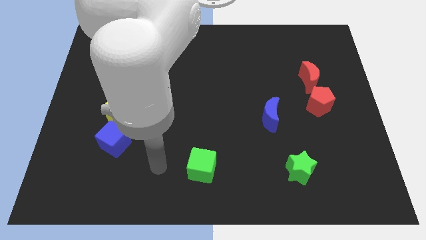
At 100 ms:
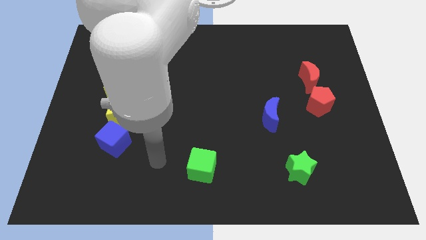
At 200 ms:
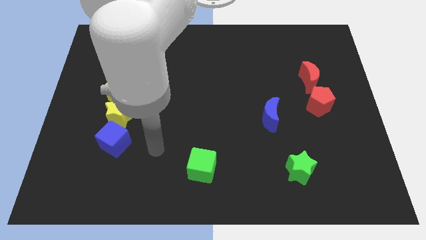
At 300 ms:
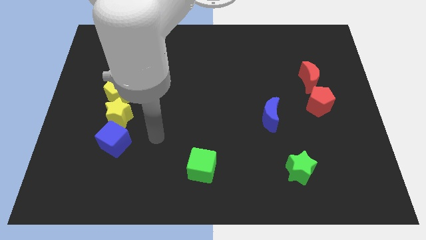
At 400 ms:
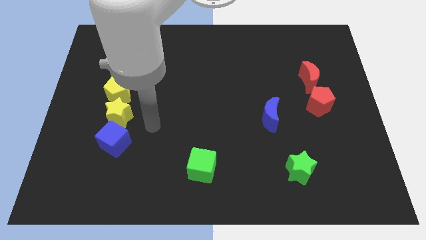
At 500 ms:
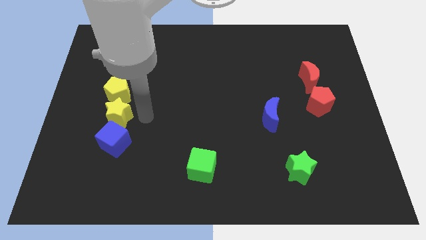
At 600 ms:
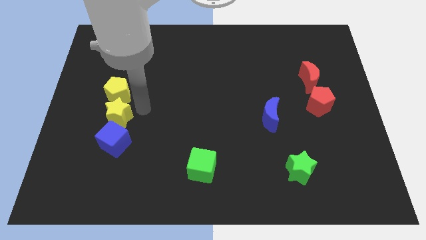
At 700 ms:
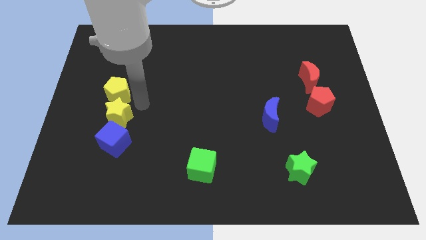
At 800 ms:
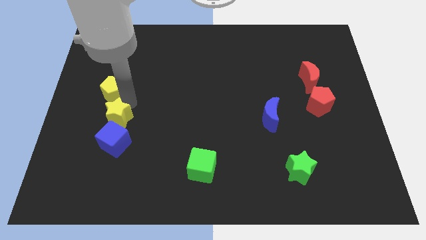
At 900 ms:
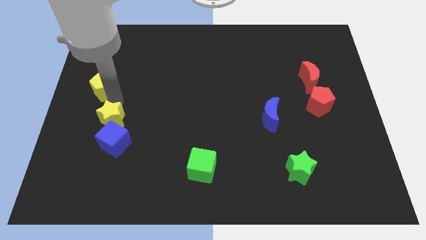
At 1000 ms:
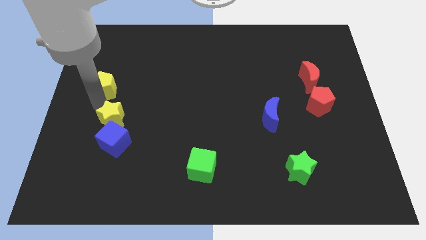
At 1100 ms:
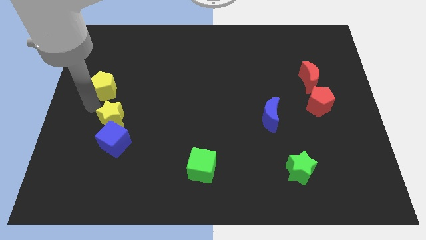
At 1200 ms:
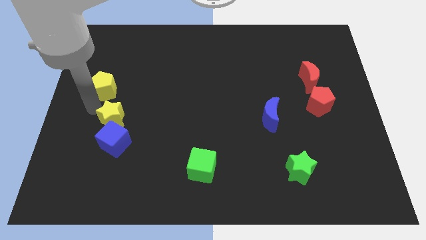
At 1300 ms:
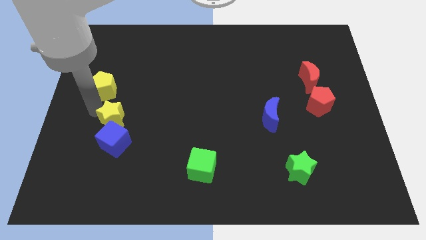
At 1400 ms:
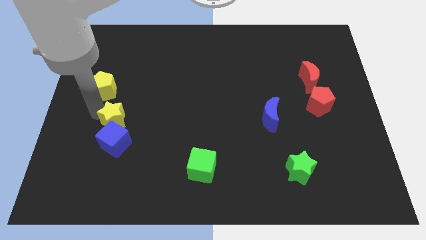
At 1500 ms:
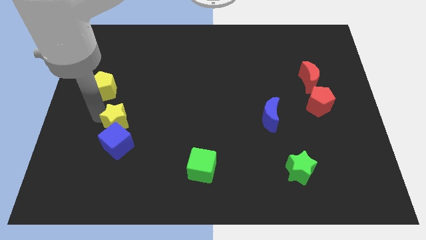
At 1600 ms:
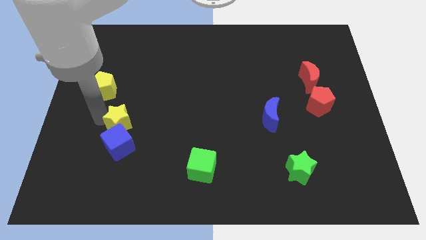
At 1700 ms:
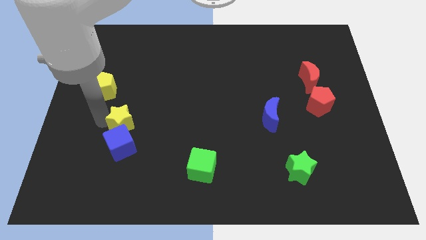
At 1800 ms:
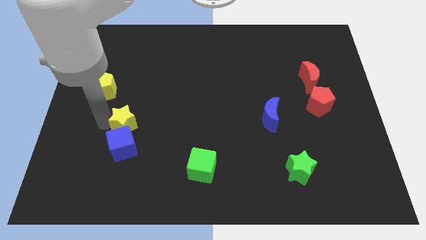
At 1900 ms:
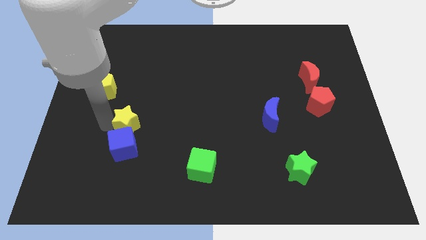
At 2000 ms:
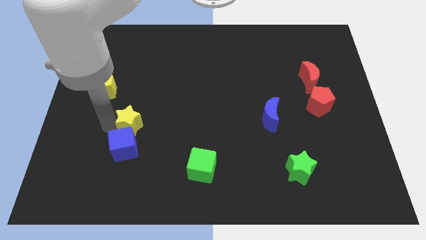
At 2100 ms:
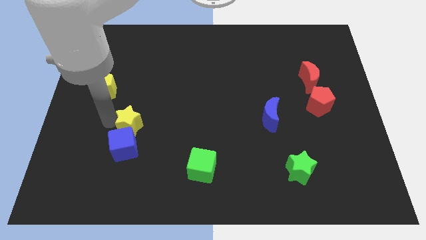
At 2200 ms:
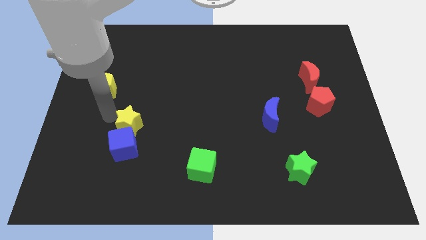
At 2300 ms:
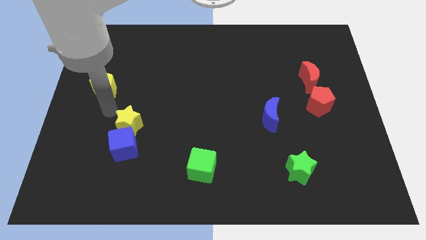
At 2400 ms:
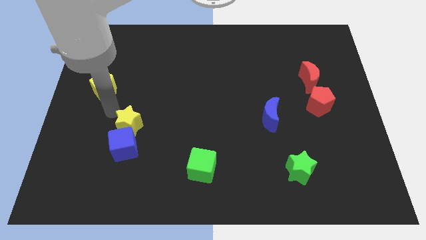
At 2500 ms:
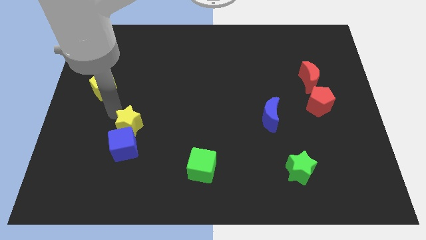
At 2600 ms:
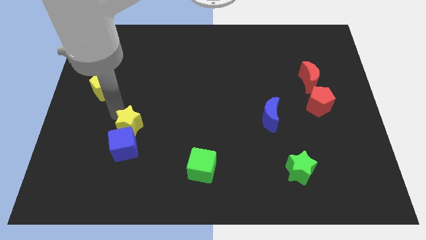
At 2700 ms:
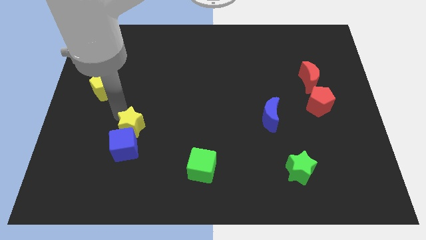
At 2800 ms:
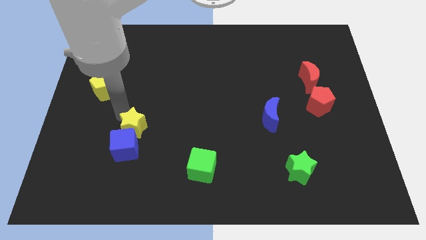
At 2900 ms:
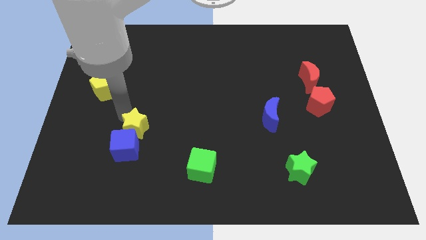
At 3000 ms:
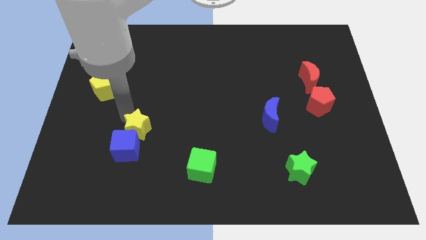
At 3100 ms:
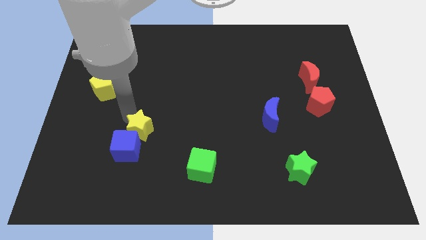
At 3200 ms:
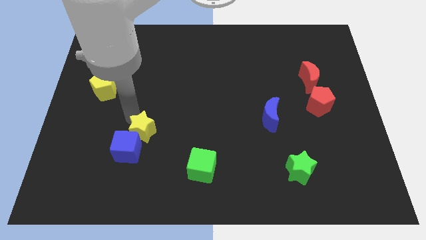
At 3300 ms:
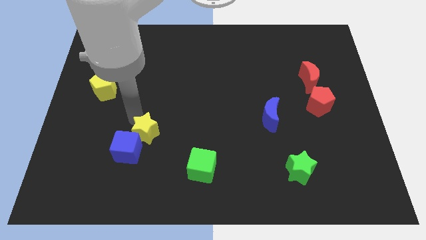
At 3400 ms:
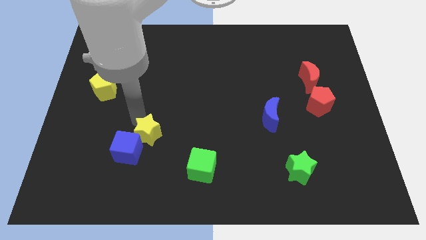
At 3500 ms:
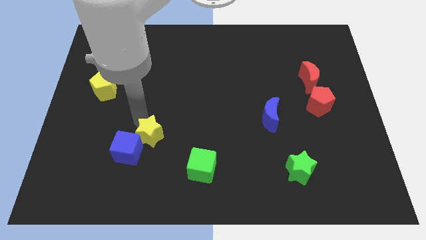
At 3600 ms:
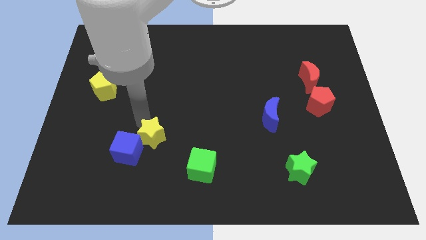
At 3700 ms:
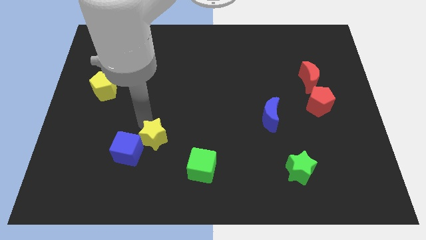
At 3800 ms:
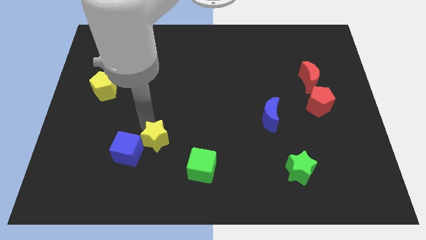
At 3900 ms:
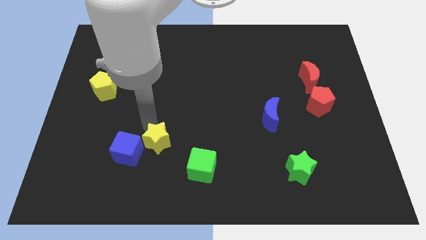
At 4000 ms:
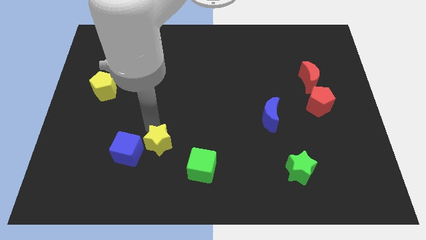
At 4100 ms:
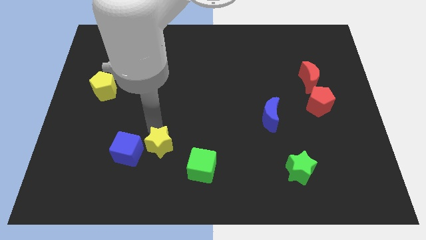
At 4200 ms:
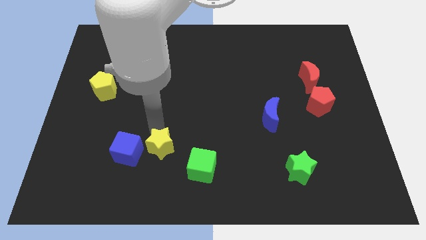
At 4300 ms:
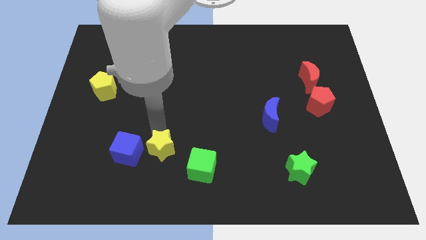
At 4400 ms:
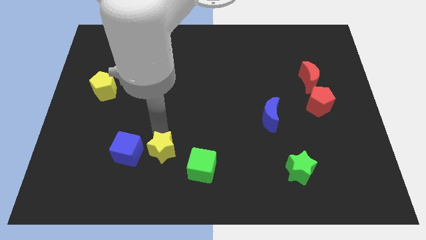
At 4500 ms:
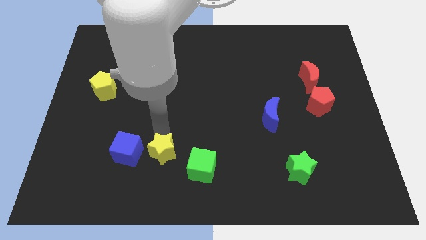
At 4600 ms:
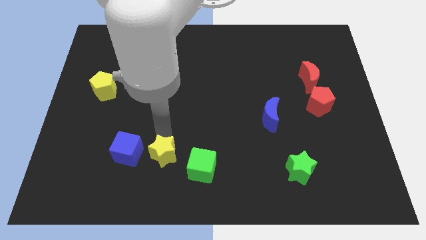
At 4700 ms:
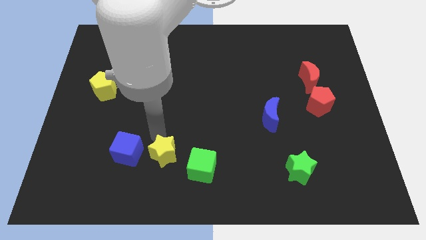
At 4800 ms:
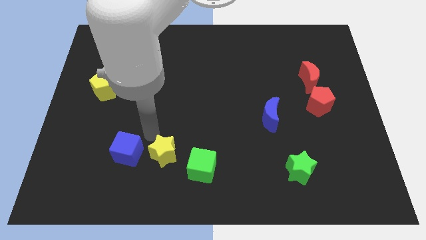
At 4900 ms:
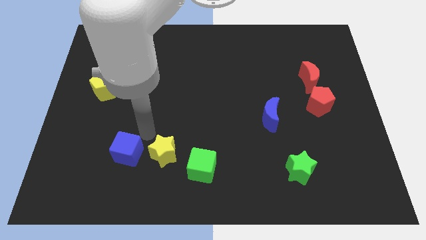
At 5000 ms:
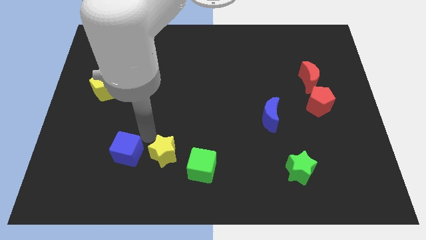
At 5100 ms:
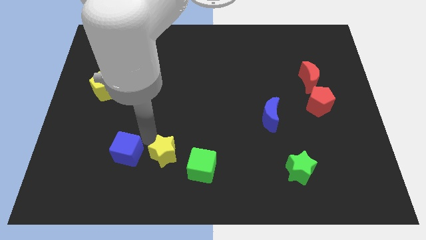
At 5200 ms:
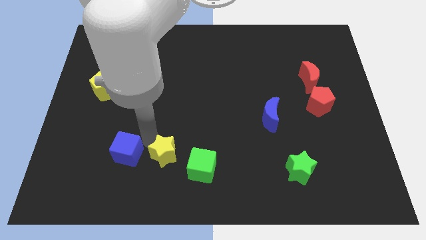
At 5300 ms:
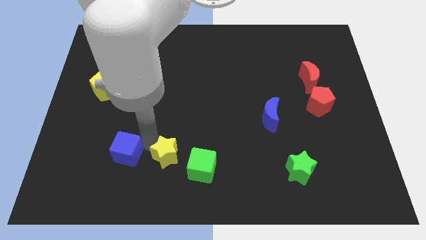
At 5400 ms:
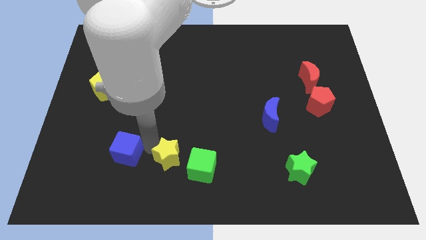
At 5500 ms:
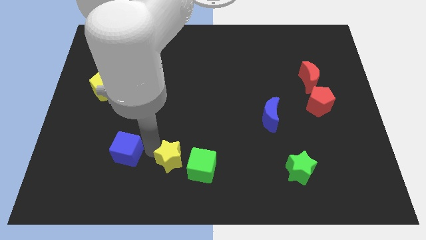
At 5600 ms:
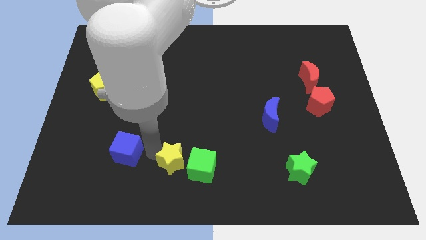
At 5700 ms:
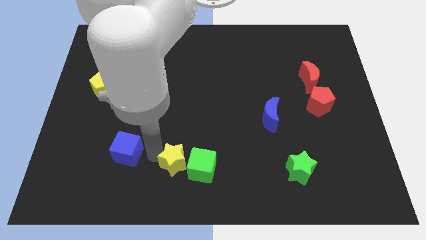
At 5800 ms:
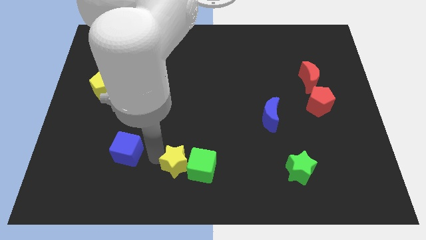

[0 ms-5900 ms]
move the yellow star to the bottom

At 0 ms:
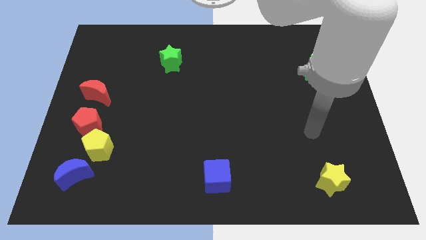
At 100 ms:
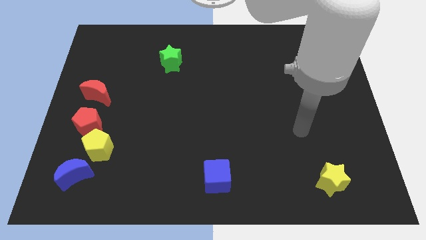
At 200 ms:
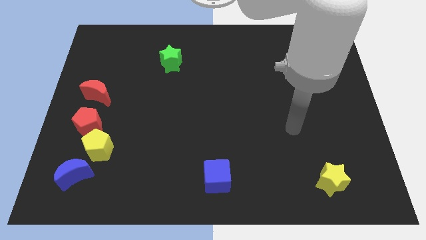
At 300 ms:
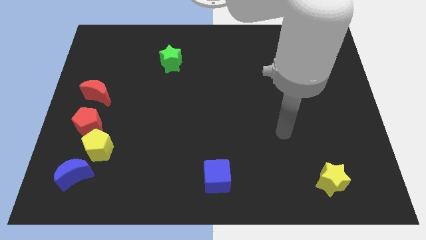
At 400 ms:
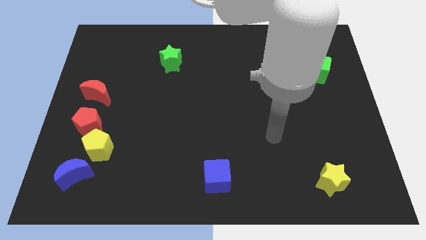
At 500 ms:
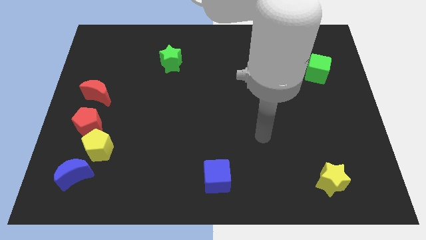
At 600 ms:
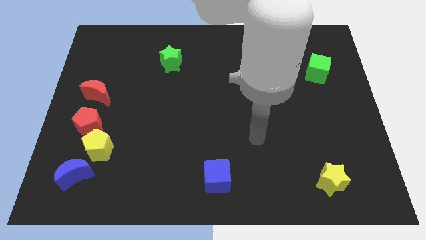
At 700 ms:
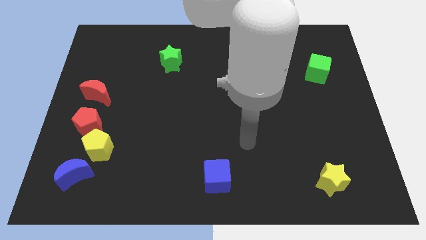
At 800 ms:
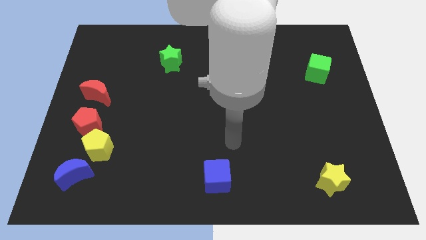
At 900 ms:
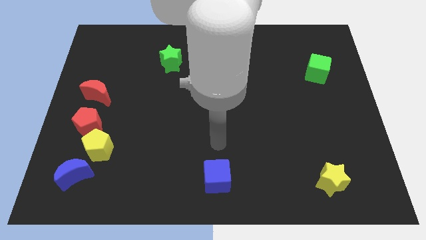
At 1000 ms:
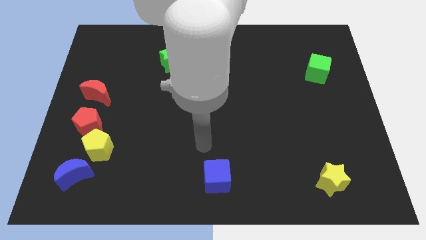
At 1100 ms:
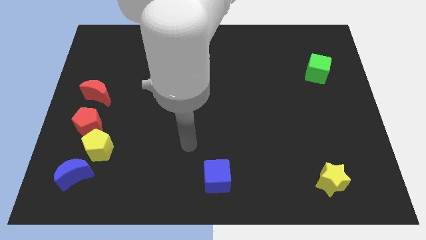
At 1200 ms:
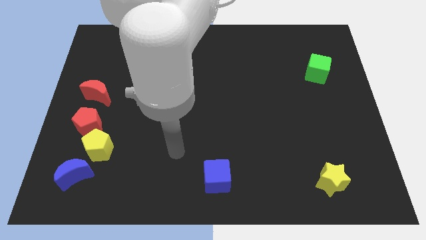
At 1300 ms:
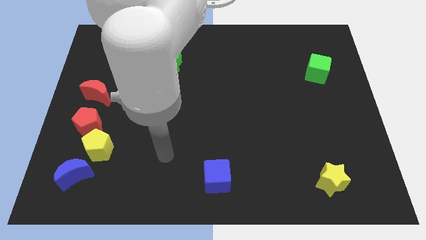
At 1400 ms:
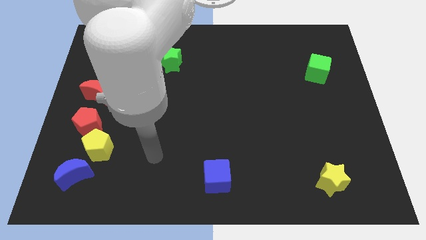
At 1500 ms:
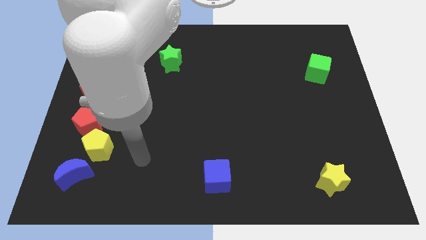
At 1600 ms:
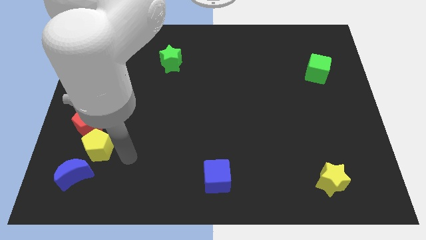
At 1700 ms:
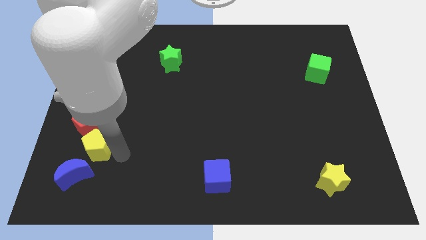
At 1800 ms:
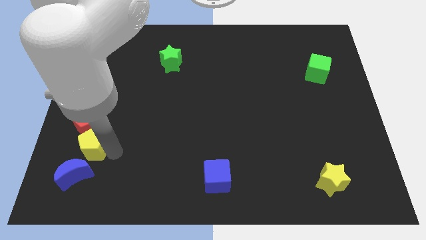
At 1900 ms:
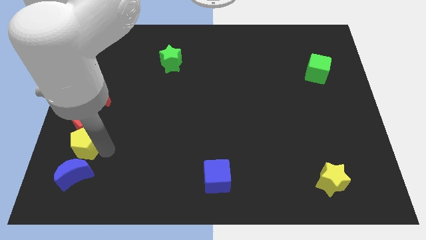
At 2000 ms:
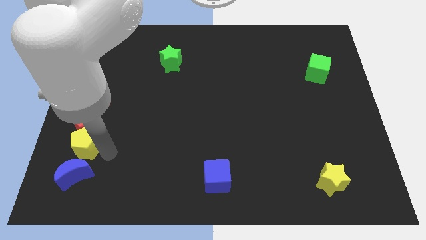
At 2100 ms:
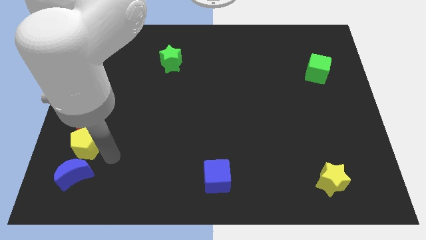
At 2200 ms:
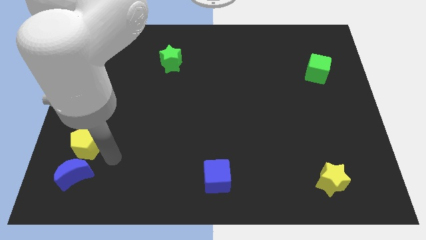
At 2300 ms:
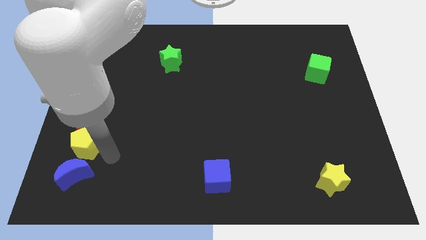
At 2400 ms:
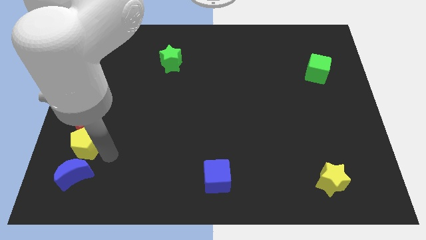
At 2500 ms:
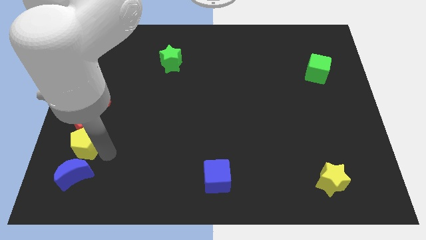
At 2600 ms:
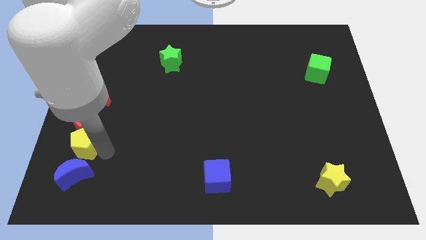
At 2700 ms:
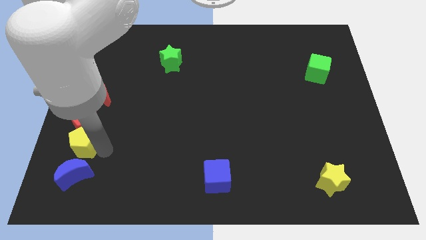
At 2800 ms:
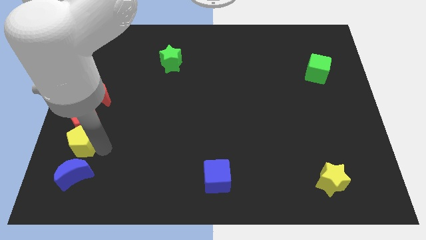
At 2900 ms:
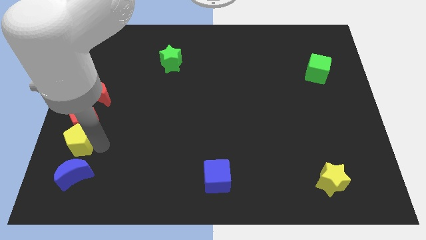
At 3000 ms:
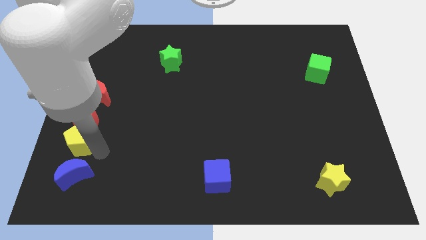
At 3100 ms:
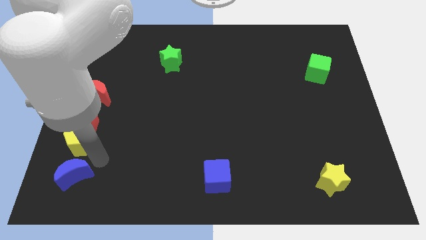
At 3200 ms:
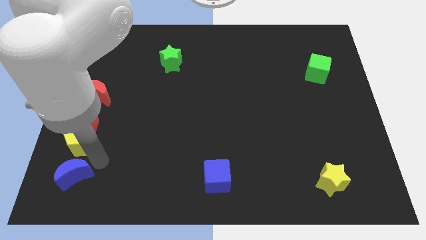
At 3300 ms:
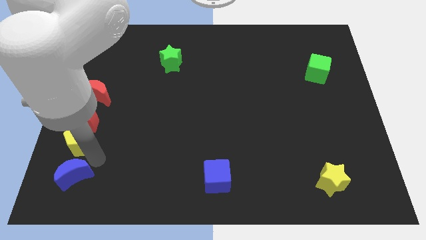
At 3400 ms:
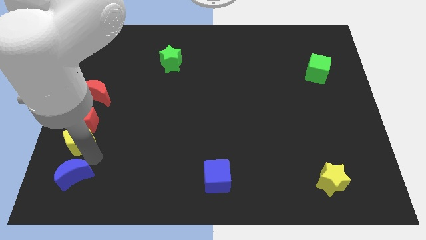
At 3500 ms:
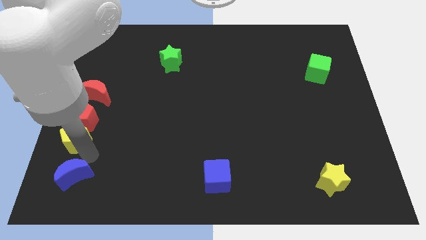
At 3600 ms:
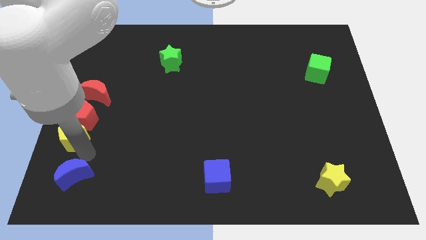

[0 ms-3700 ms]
slide the yellow pentagon to the left side
